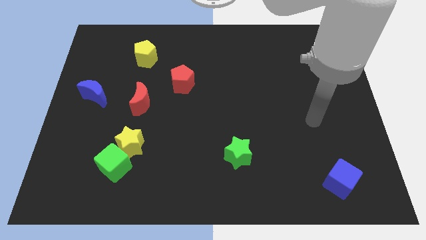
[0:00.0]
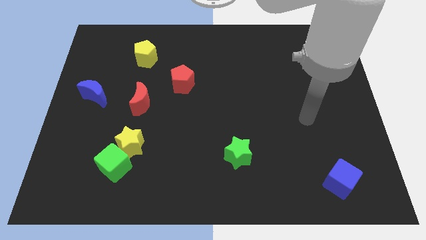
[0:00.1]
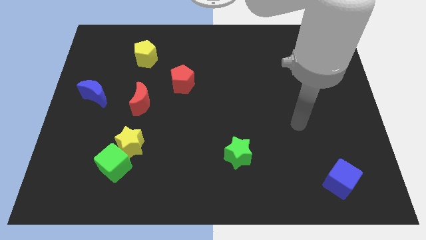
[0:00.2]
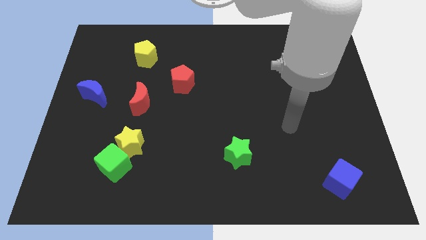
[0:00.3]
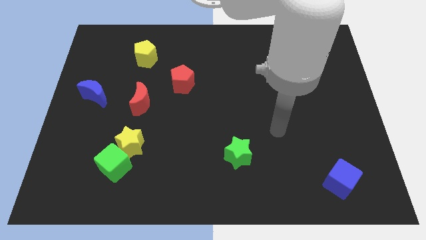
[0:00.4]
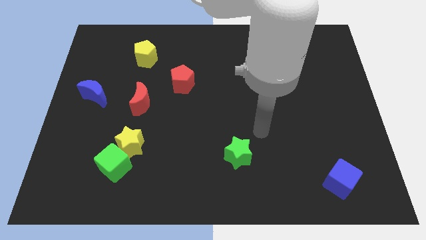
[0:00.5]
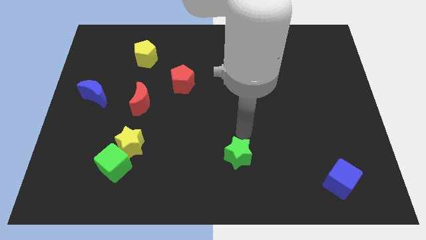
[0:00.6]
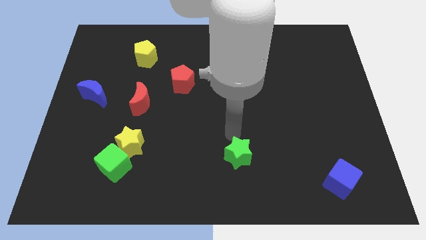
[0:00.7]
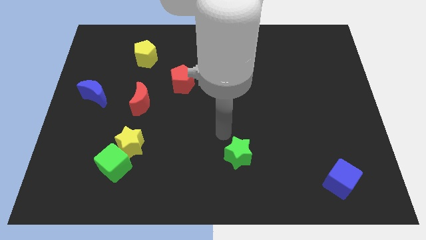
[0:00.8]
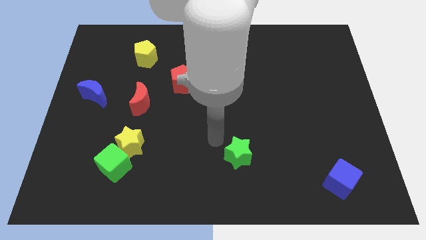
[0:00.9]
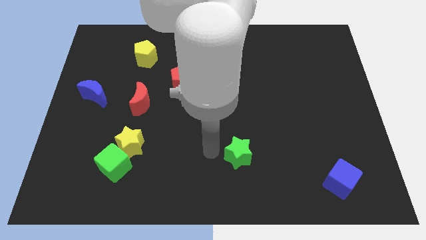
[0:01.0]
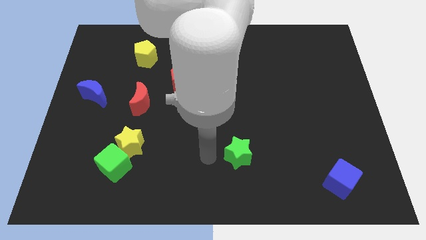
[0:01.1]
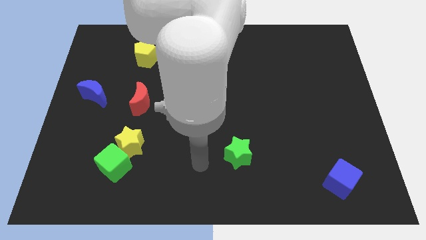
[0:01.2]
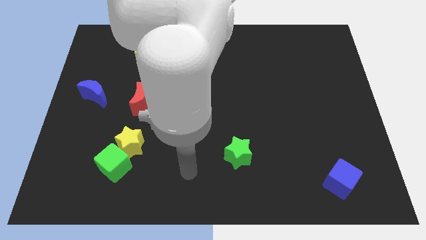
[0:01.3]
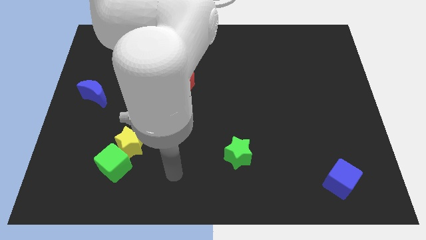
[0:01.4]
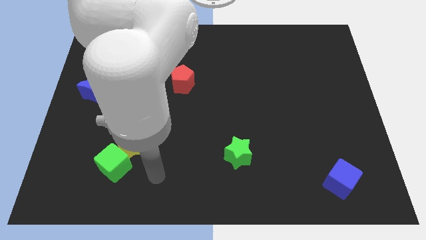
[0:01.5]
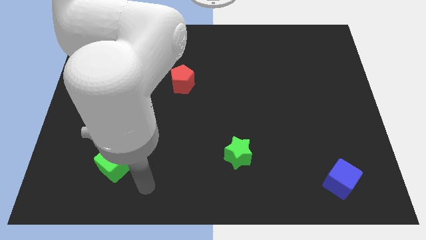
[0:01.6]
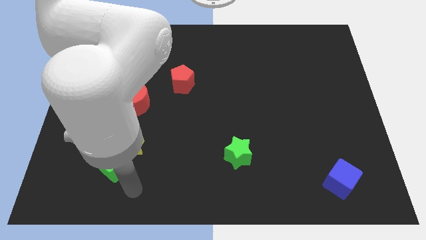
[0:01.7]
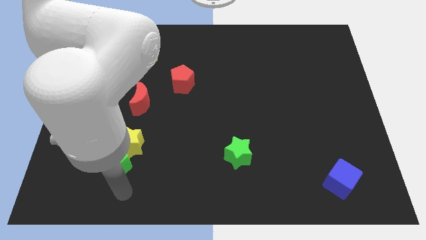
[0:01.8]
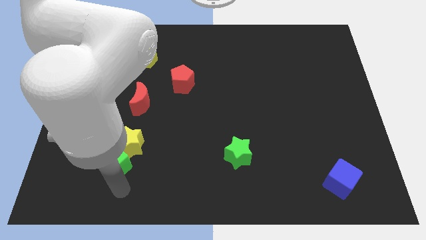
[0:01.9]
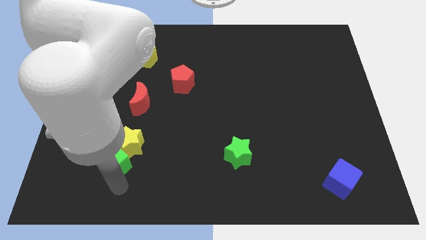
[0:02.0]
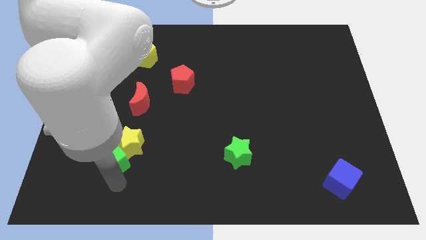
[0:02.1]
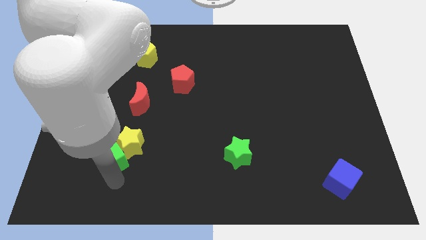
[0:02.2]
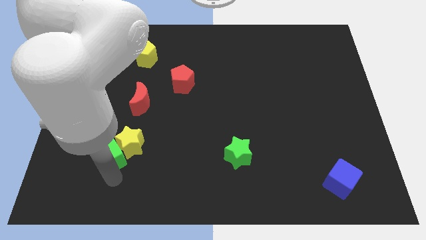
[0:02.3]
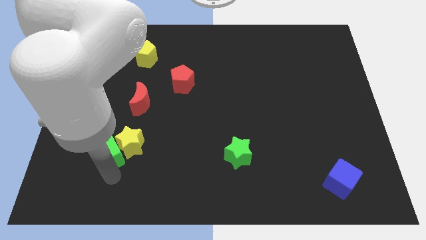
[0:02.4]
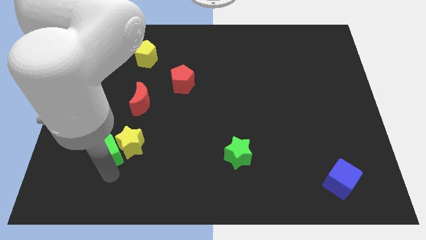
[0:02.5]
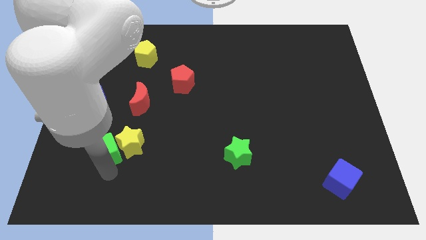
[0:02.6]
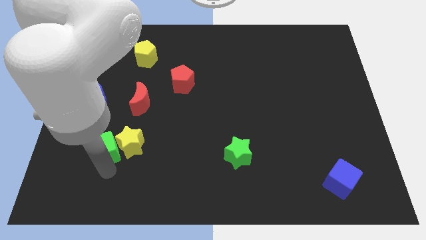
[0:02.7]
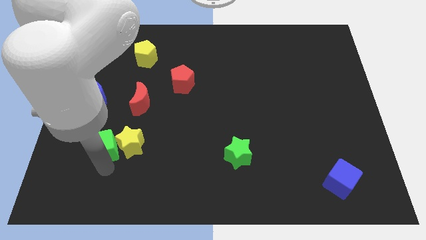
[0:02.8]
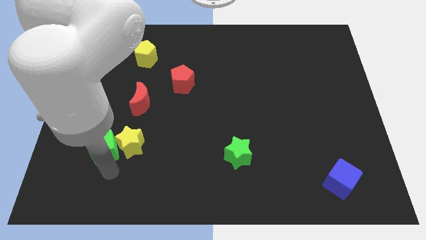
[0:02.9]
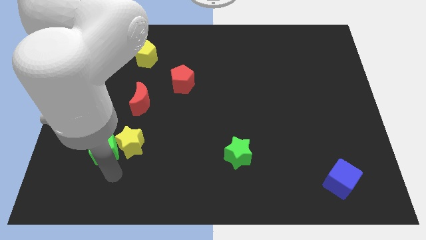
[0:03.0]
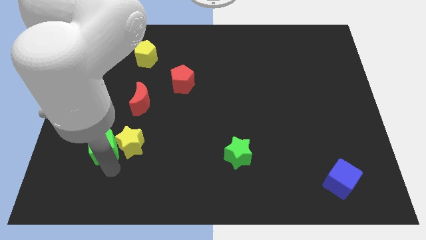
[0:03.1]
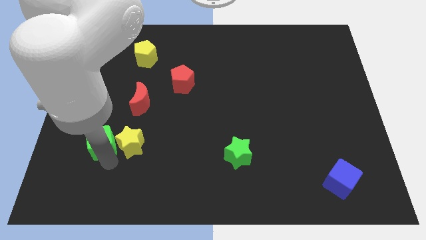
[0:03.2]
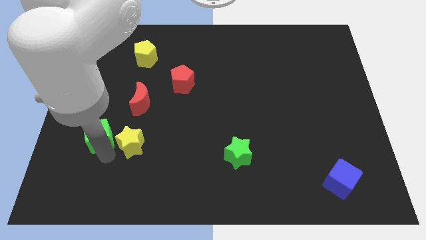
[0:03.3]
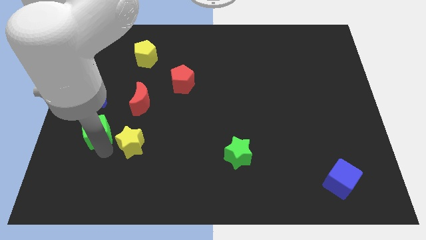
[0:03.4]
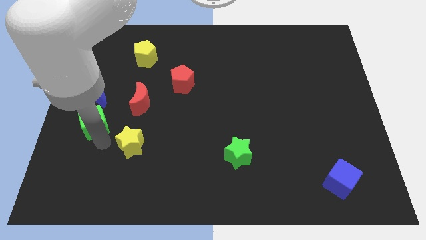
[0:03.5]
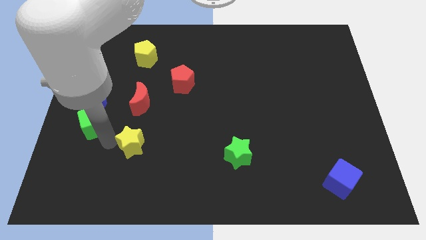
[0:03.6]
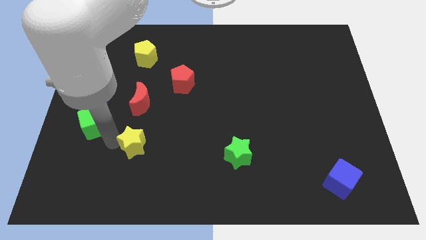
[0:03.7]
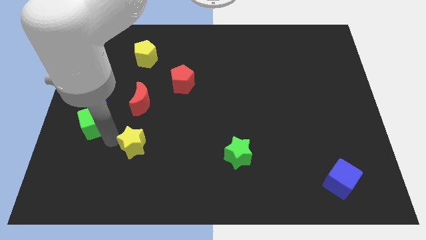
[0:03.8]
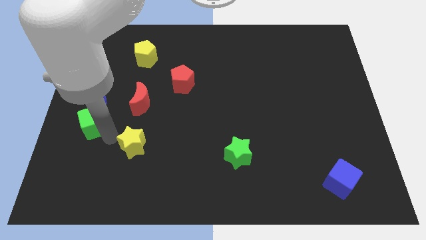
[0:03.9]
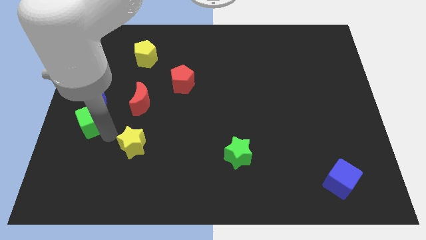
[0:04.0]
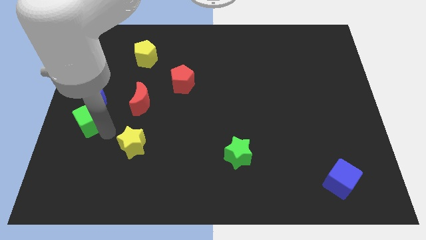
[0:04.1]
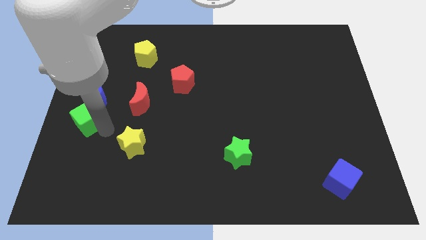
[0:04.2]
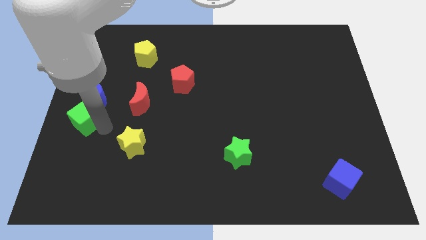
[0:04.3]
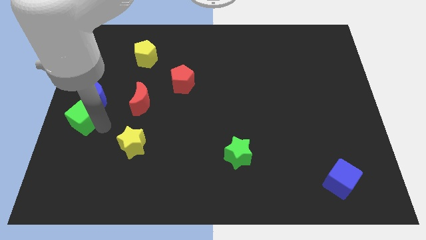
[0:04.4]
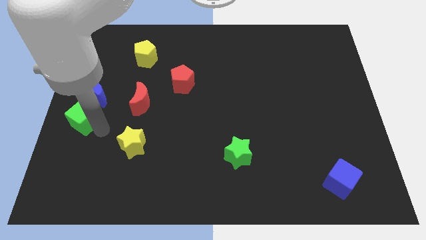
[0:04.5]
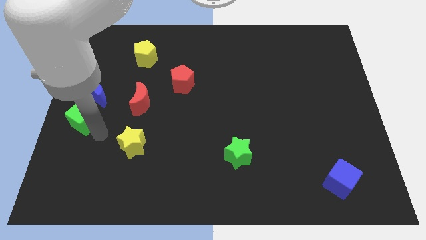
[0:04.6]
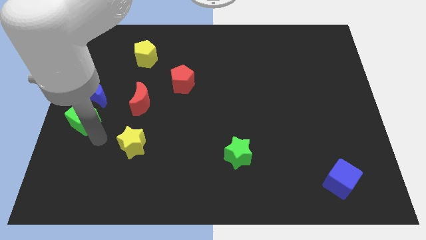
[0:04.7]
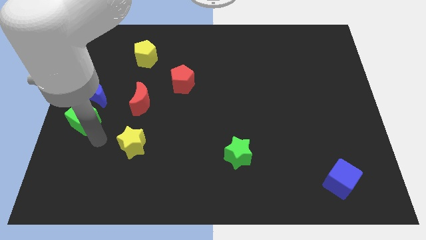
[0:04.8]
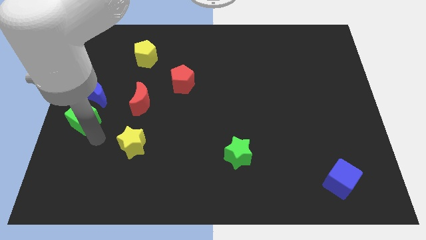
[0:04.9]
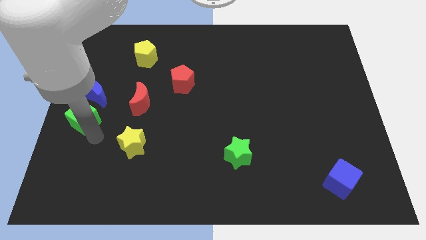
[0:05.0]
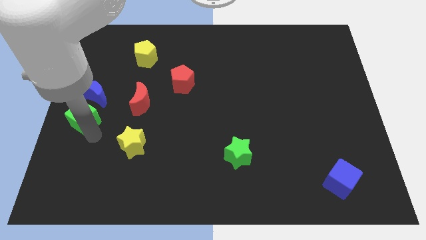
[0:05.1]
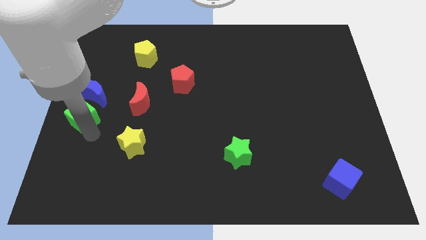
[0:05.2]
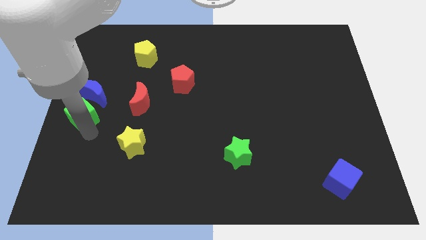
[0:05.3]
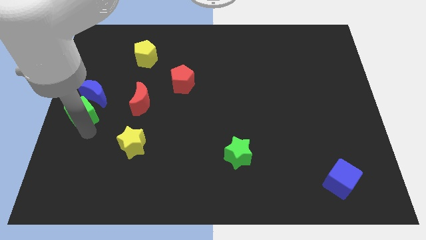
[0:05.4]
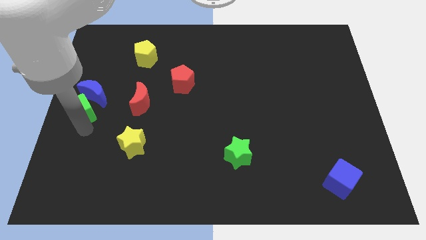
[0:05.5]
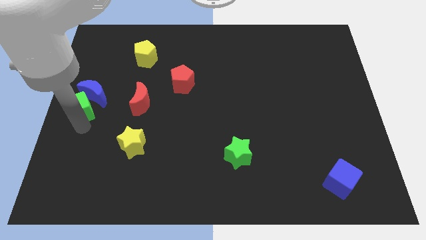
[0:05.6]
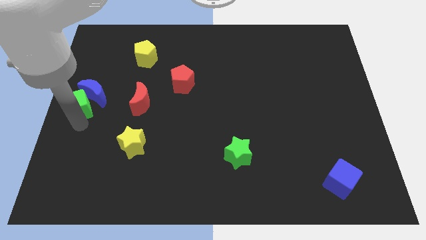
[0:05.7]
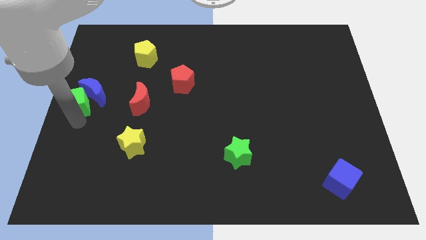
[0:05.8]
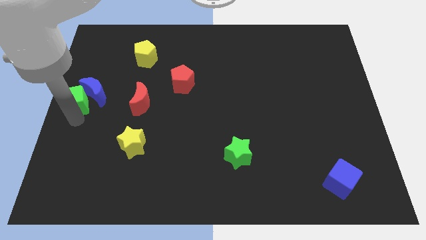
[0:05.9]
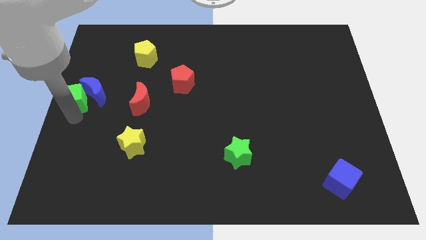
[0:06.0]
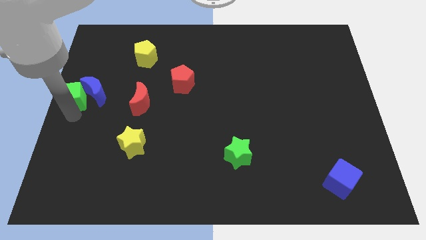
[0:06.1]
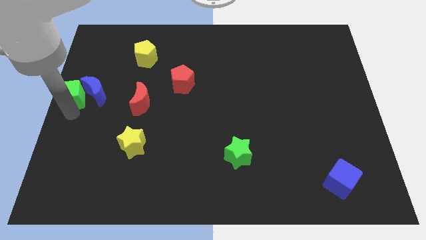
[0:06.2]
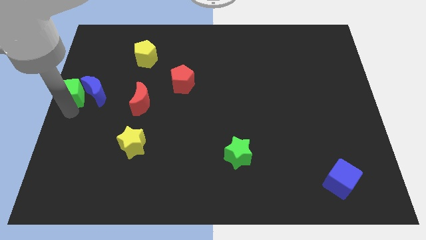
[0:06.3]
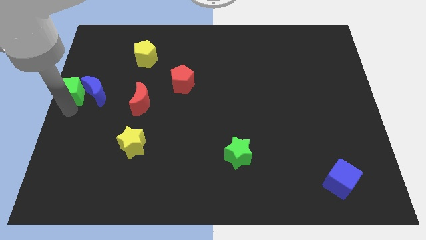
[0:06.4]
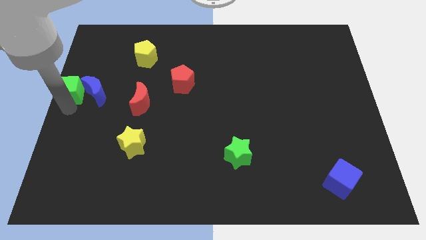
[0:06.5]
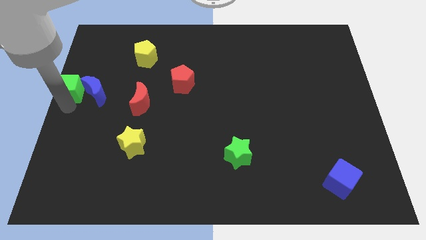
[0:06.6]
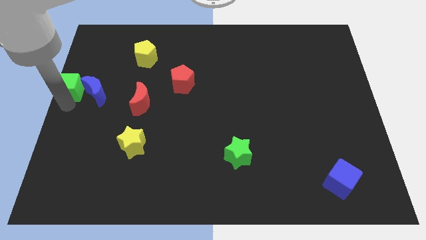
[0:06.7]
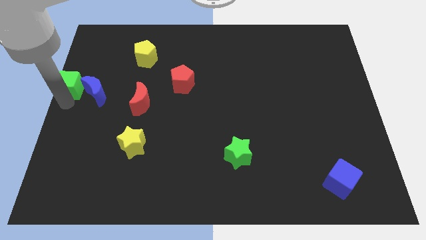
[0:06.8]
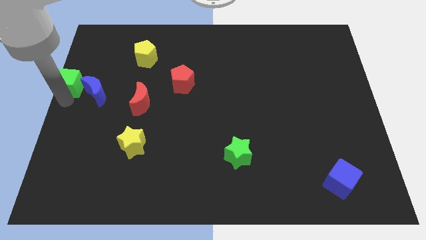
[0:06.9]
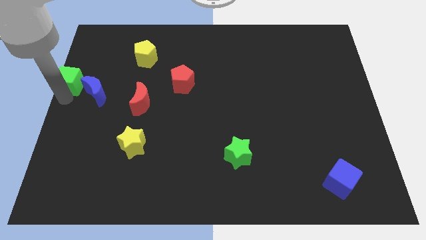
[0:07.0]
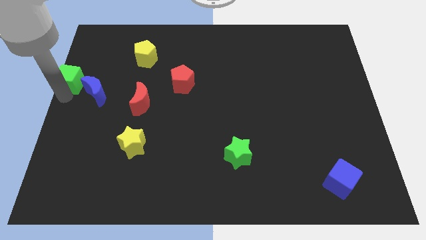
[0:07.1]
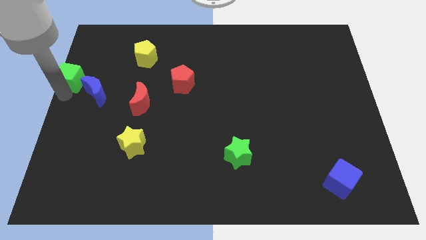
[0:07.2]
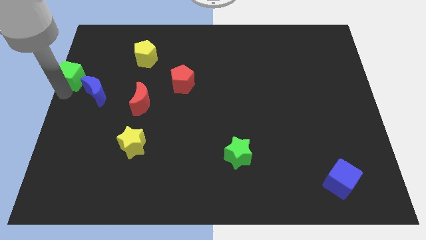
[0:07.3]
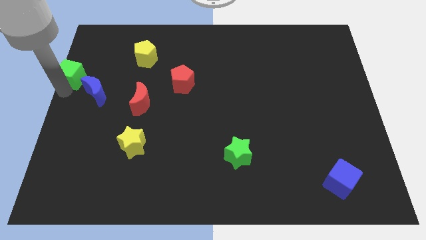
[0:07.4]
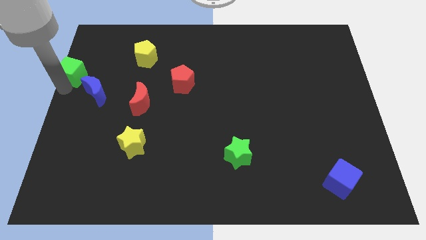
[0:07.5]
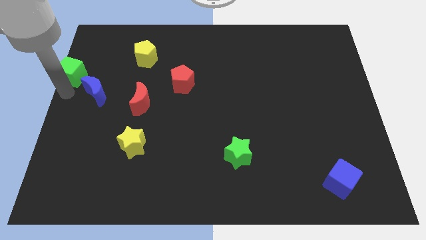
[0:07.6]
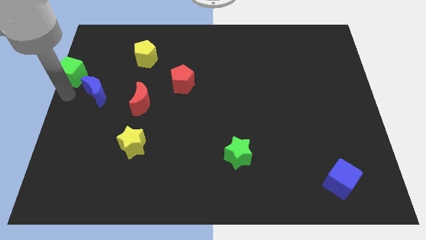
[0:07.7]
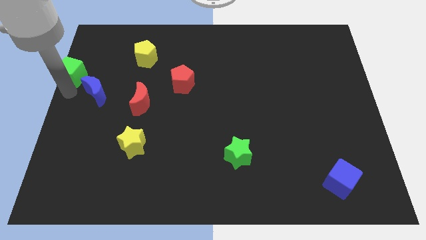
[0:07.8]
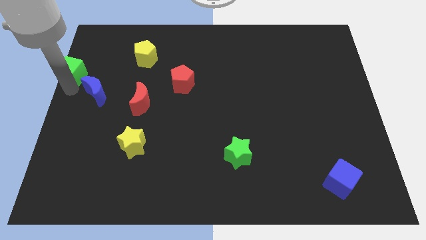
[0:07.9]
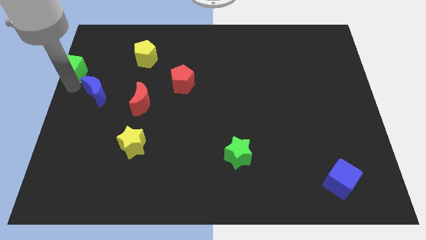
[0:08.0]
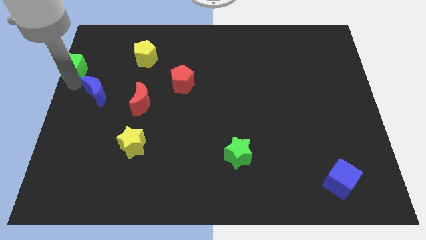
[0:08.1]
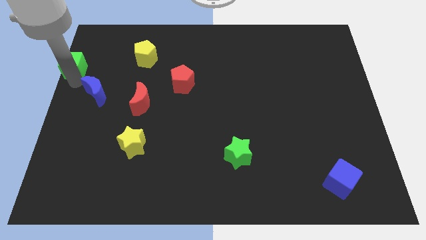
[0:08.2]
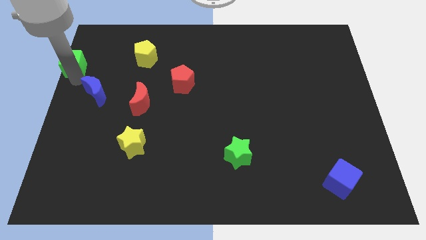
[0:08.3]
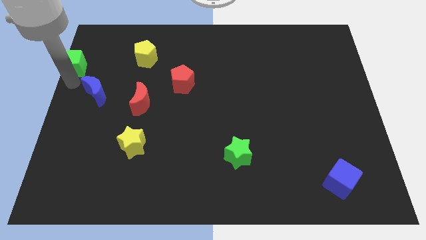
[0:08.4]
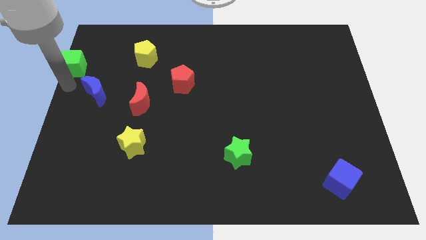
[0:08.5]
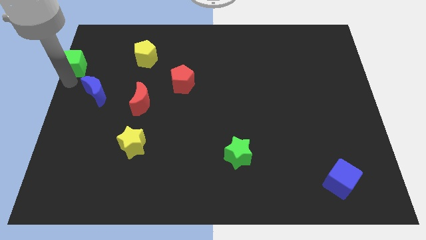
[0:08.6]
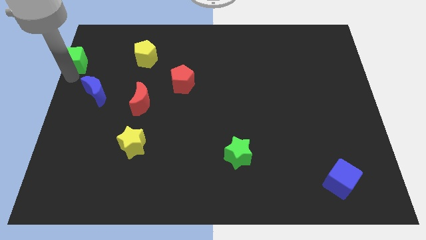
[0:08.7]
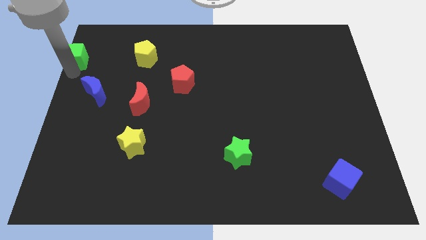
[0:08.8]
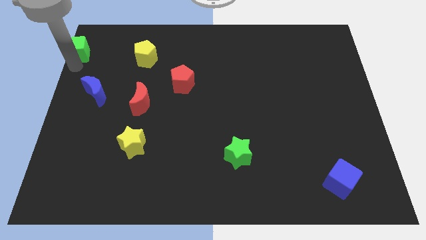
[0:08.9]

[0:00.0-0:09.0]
put the green cube to the top left
